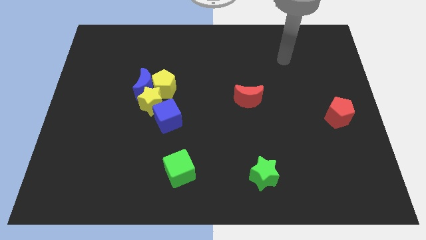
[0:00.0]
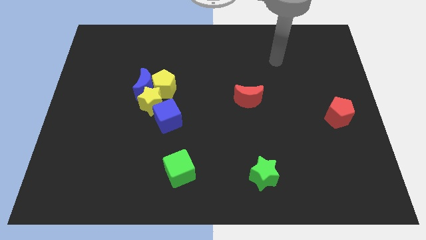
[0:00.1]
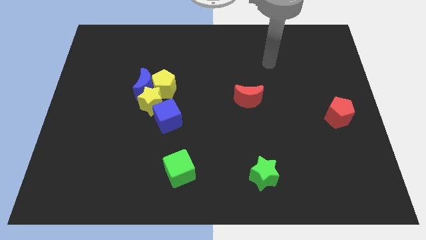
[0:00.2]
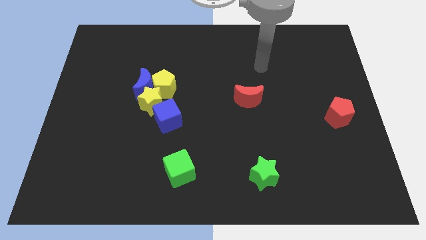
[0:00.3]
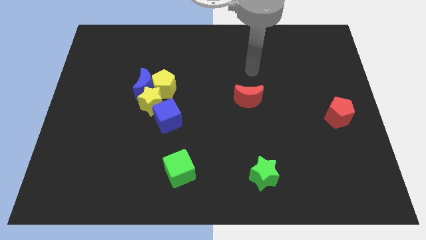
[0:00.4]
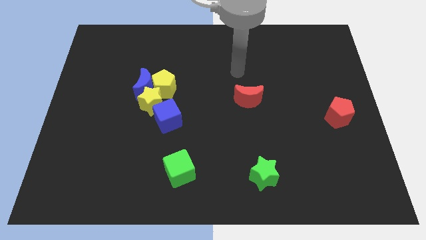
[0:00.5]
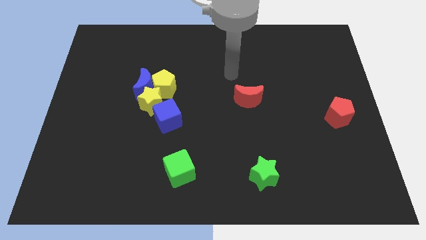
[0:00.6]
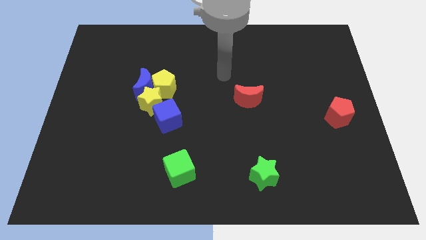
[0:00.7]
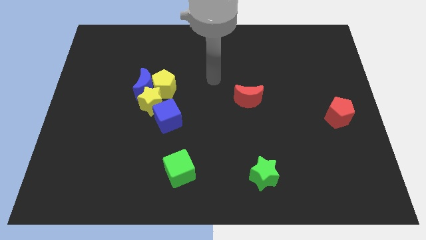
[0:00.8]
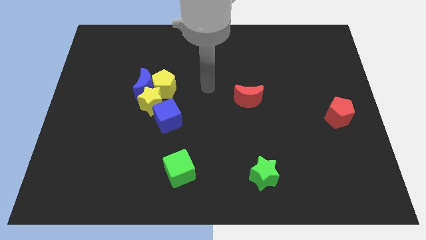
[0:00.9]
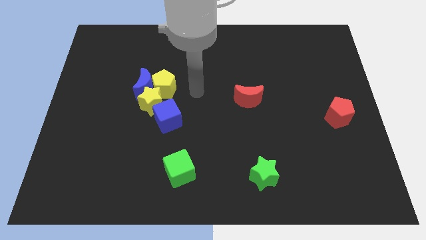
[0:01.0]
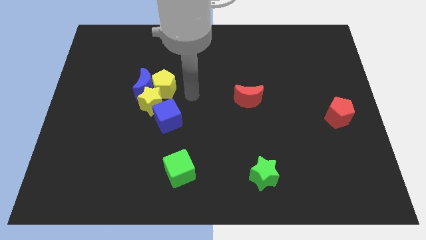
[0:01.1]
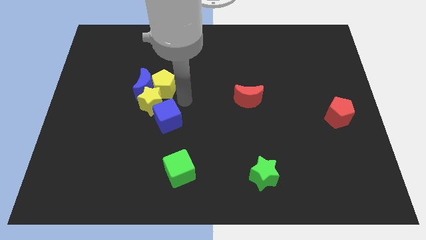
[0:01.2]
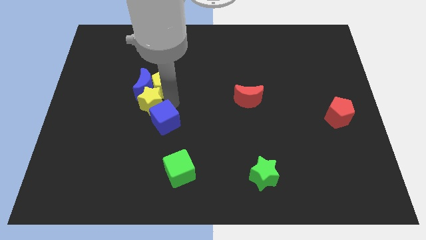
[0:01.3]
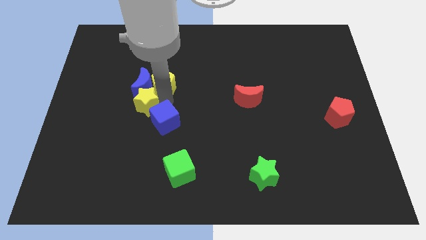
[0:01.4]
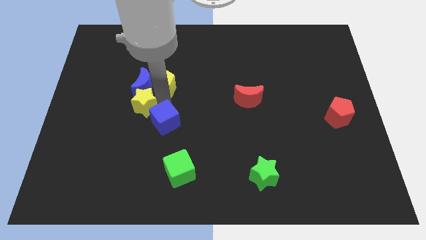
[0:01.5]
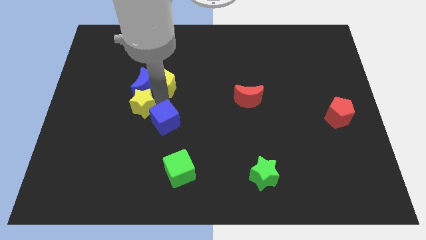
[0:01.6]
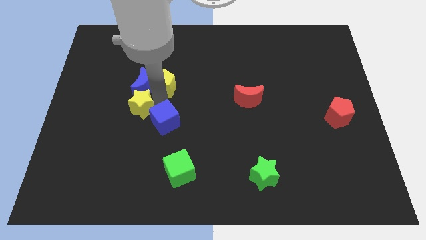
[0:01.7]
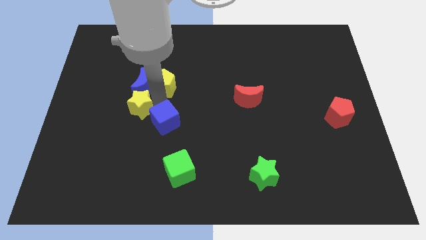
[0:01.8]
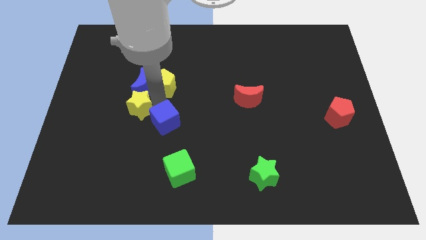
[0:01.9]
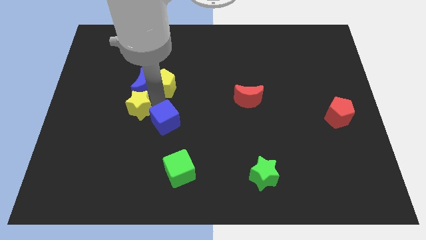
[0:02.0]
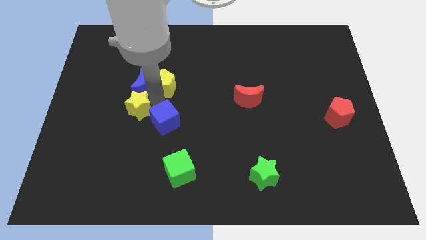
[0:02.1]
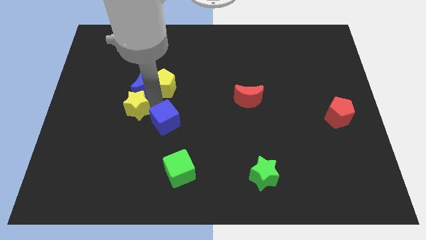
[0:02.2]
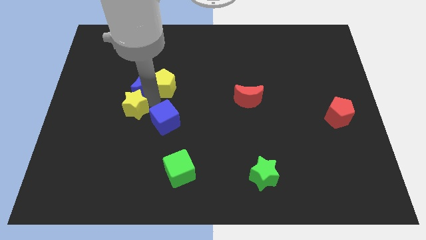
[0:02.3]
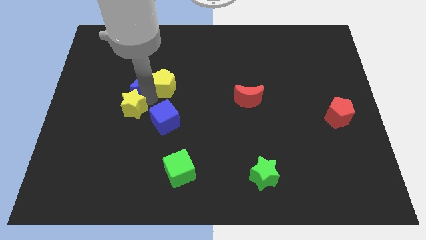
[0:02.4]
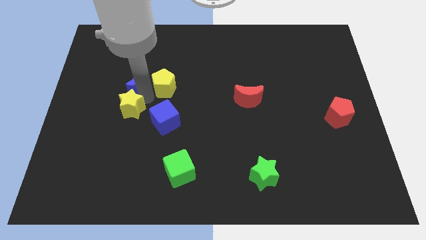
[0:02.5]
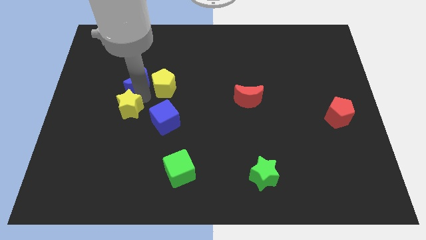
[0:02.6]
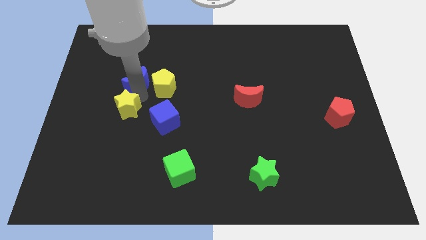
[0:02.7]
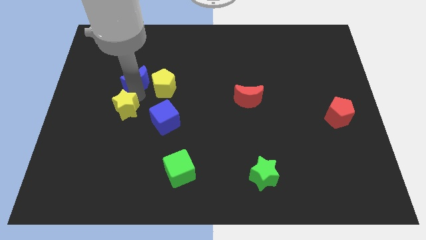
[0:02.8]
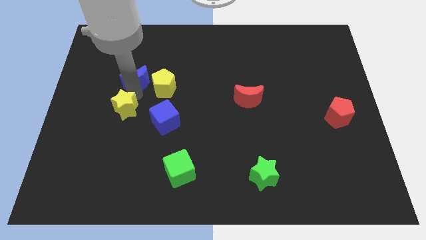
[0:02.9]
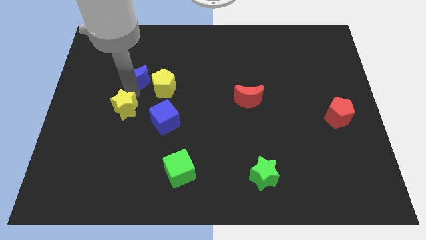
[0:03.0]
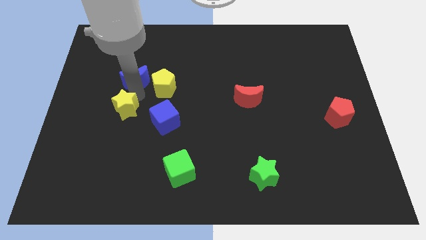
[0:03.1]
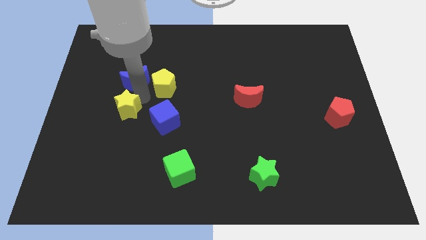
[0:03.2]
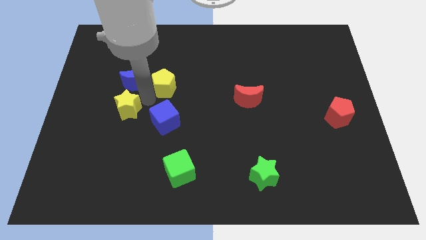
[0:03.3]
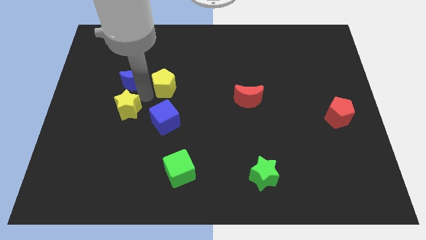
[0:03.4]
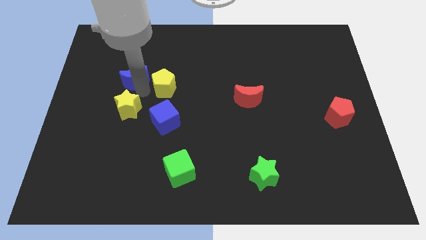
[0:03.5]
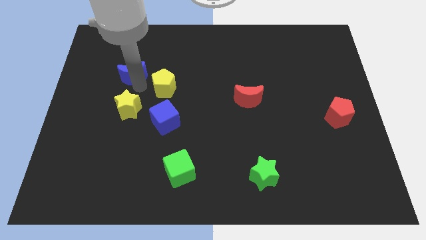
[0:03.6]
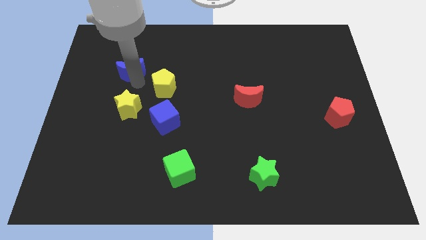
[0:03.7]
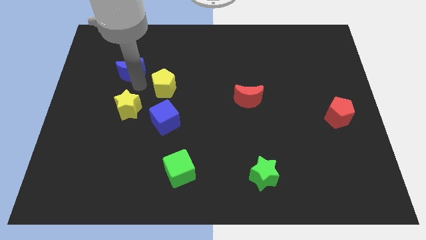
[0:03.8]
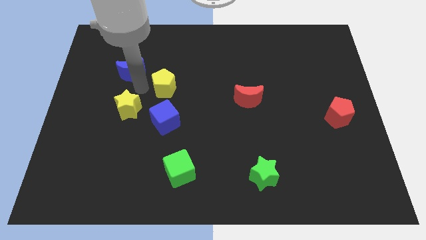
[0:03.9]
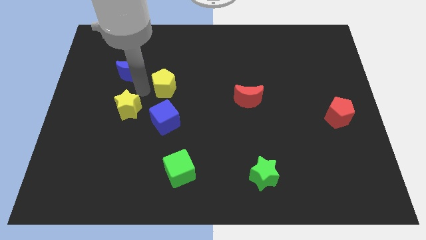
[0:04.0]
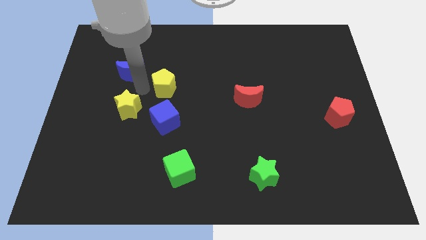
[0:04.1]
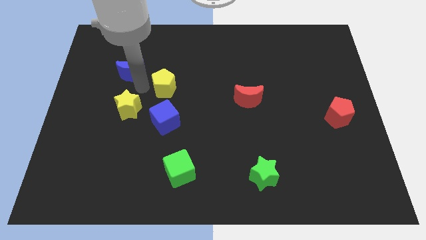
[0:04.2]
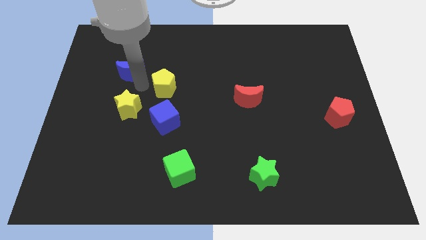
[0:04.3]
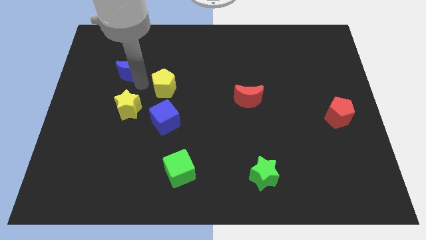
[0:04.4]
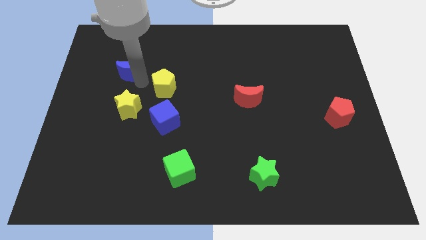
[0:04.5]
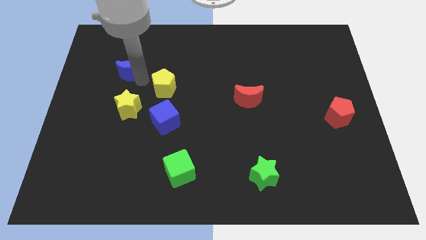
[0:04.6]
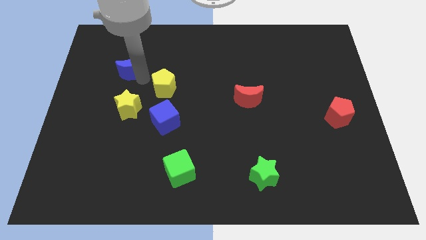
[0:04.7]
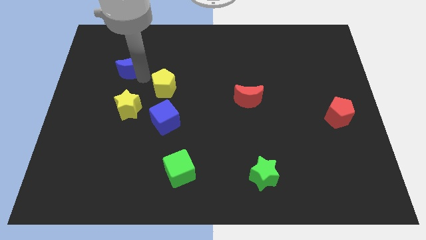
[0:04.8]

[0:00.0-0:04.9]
pull the blue moon apart from the yellow pentagon and yellow star

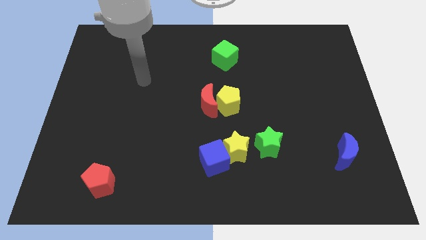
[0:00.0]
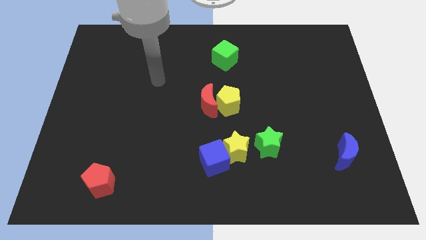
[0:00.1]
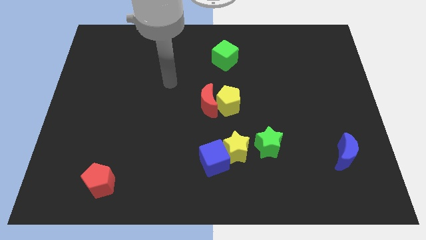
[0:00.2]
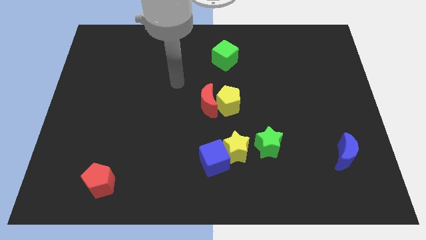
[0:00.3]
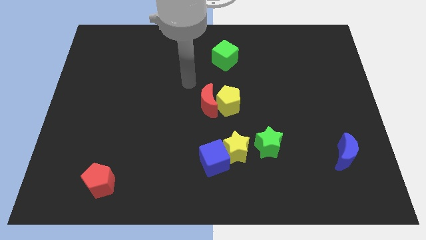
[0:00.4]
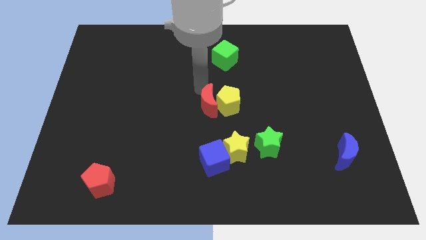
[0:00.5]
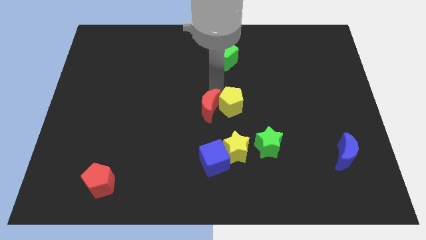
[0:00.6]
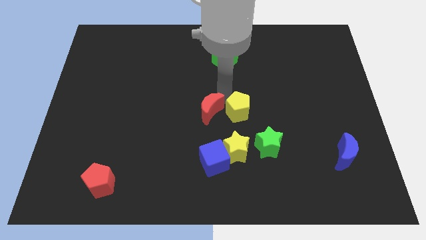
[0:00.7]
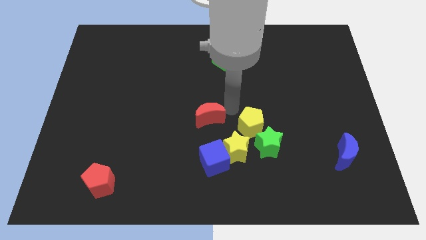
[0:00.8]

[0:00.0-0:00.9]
move the red moon away from the yellow pentagon

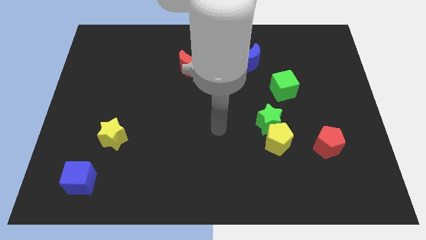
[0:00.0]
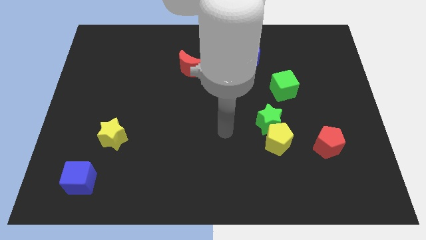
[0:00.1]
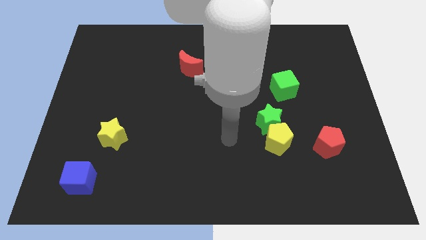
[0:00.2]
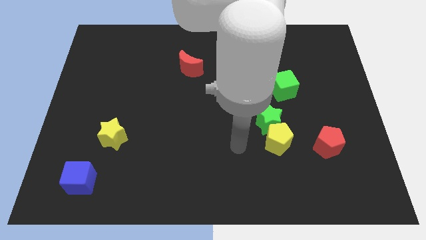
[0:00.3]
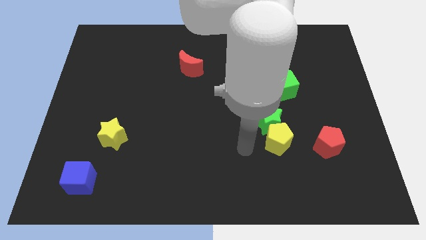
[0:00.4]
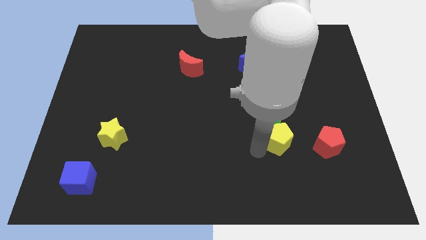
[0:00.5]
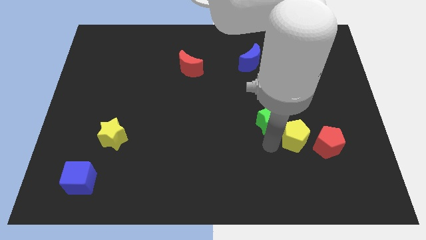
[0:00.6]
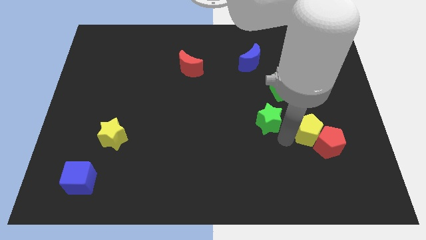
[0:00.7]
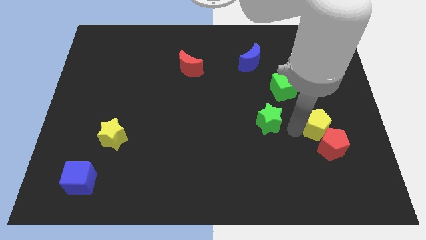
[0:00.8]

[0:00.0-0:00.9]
separate the green star from the yellow pentagon

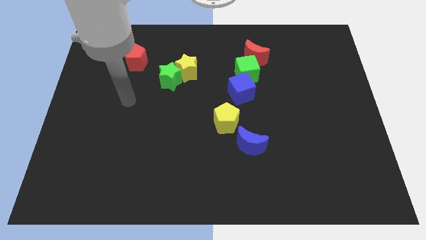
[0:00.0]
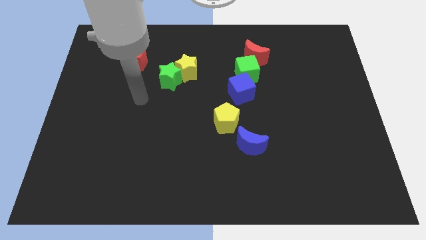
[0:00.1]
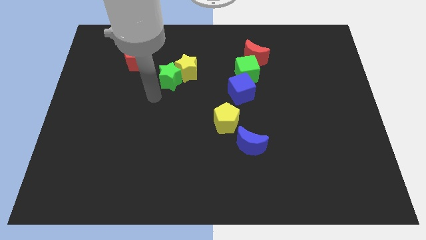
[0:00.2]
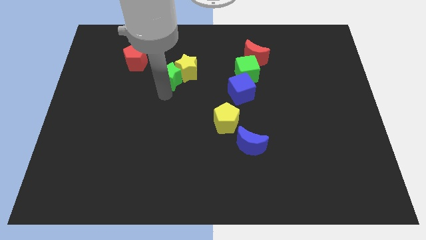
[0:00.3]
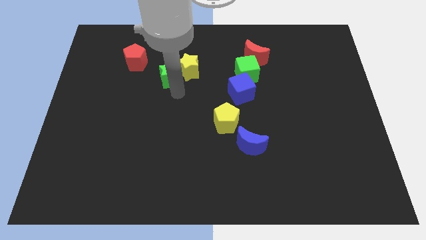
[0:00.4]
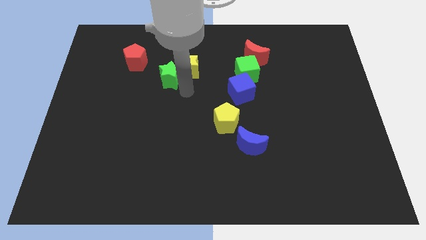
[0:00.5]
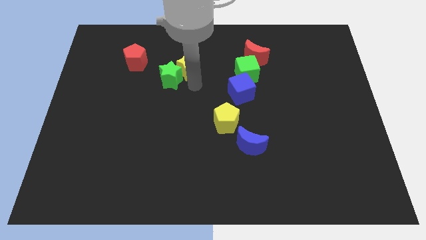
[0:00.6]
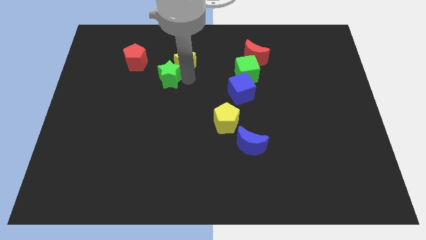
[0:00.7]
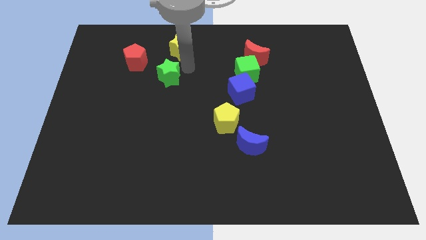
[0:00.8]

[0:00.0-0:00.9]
separate the green star from the yellow star

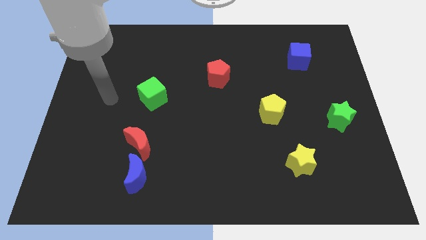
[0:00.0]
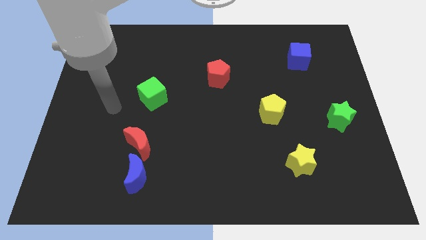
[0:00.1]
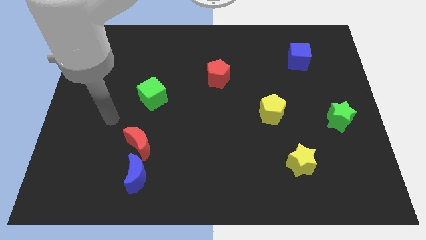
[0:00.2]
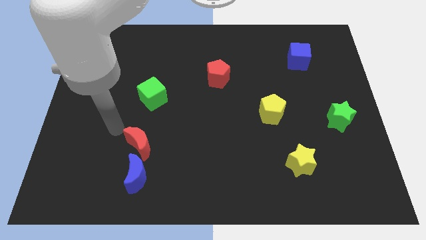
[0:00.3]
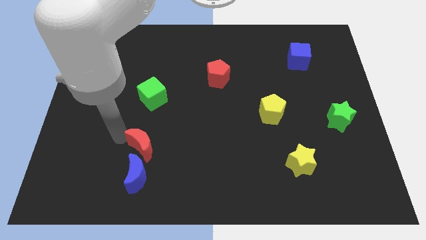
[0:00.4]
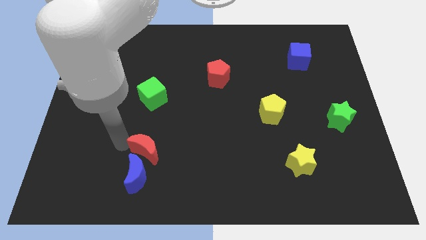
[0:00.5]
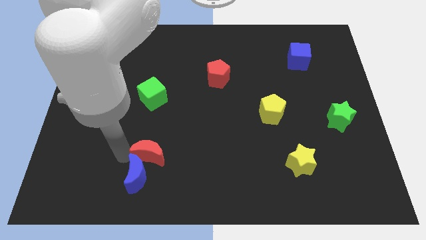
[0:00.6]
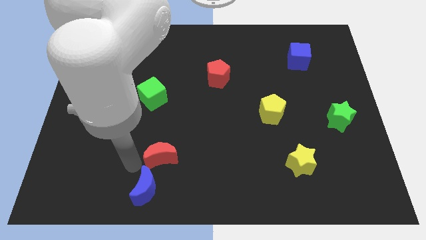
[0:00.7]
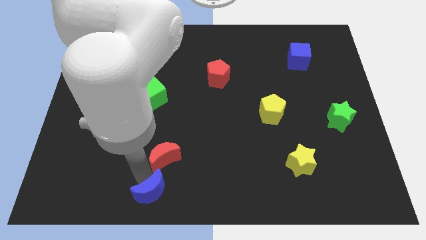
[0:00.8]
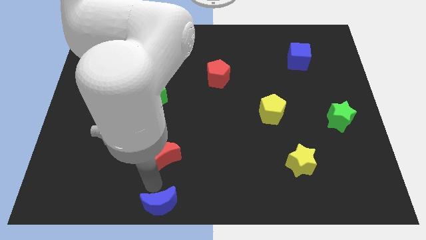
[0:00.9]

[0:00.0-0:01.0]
separate the red moon from the blue moon

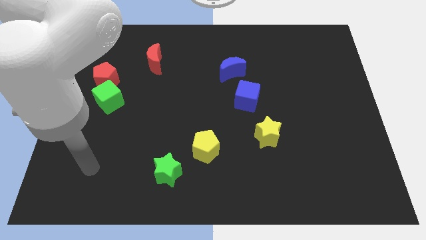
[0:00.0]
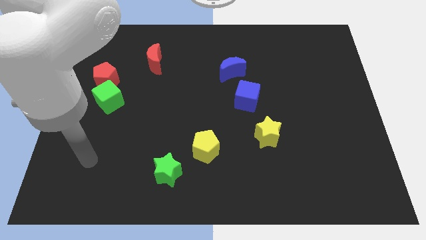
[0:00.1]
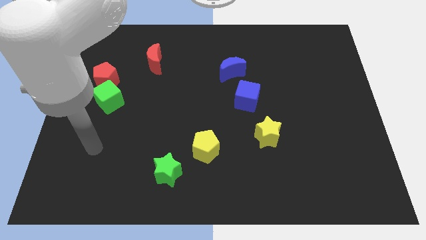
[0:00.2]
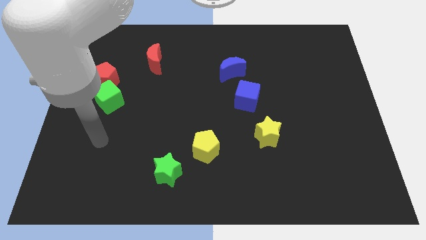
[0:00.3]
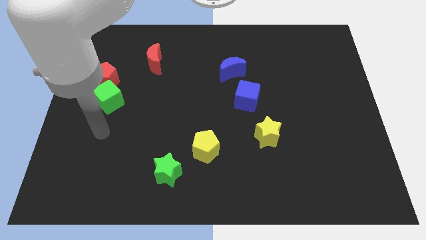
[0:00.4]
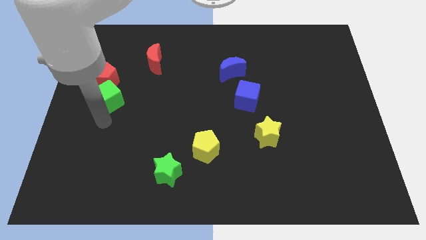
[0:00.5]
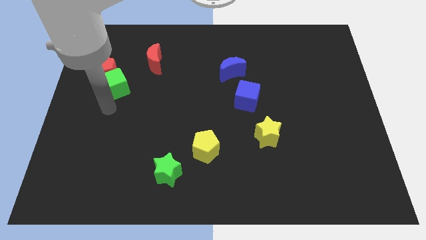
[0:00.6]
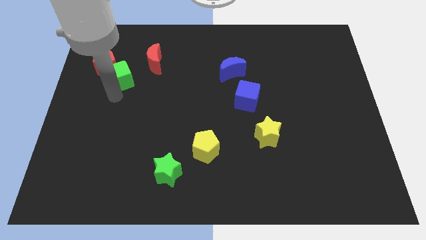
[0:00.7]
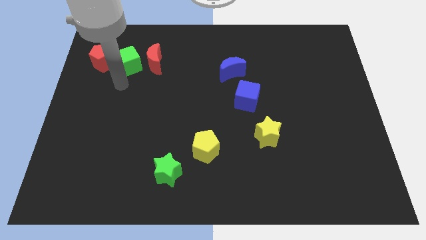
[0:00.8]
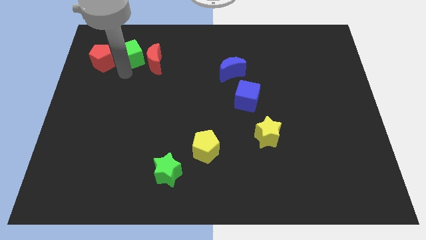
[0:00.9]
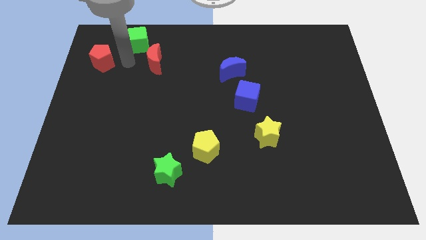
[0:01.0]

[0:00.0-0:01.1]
separate the red pentagon from the green cube
